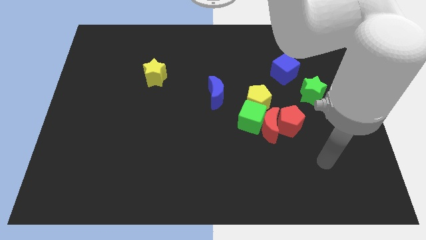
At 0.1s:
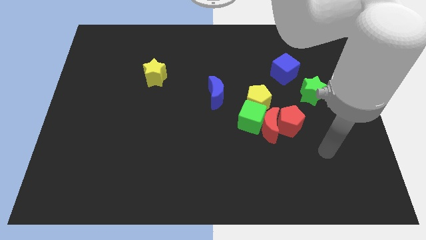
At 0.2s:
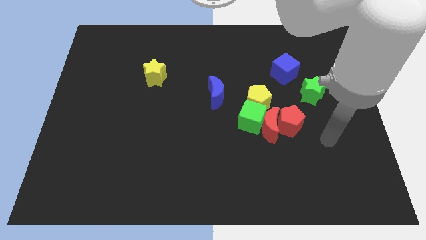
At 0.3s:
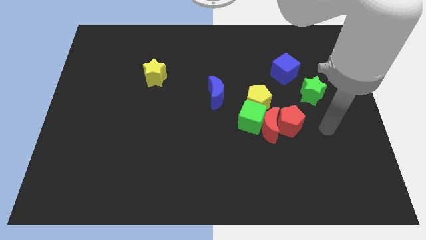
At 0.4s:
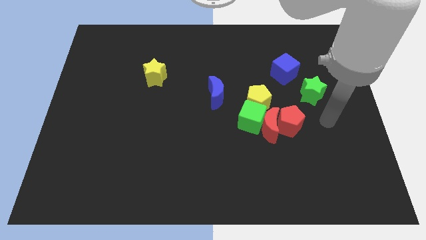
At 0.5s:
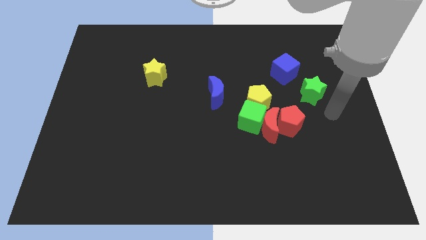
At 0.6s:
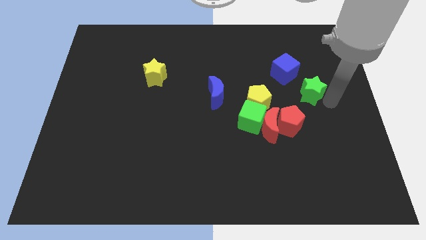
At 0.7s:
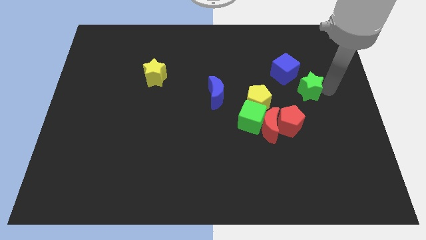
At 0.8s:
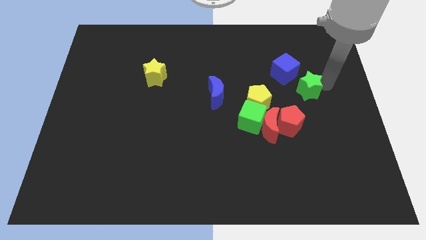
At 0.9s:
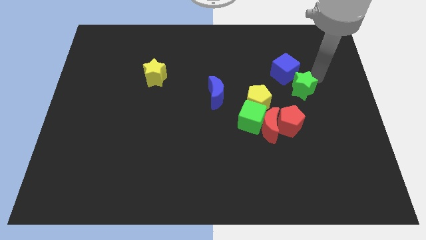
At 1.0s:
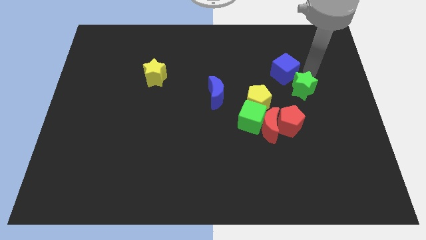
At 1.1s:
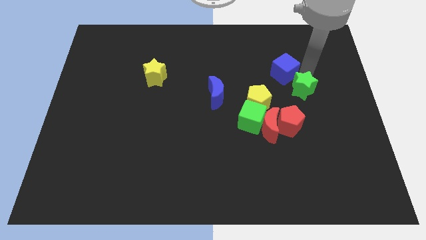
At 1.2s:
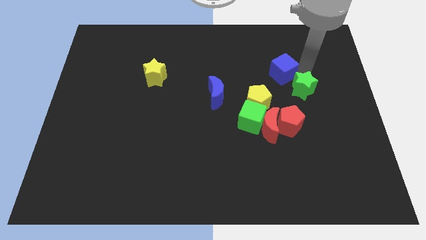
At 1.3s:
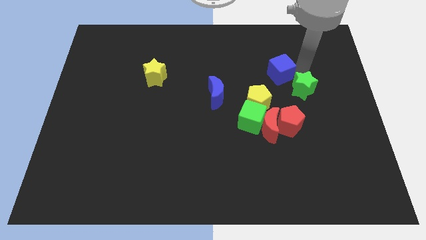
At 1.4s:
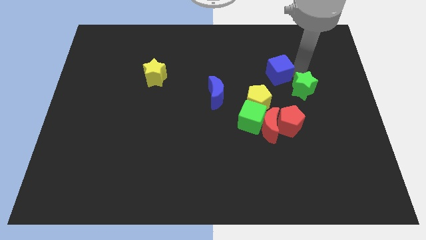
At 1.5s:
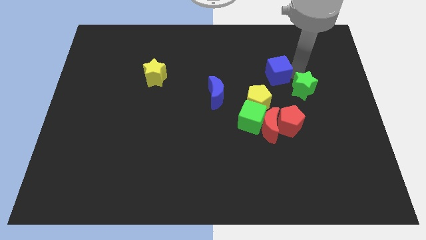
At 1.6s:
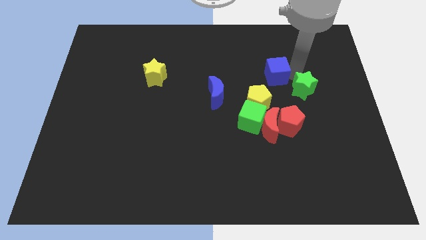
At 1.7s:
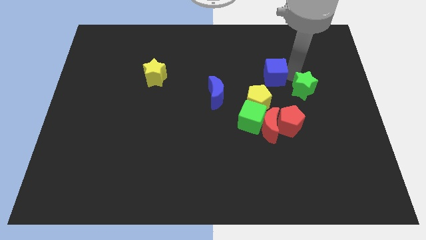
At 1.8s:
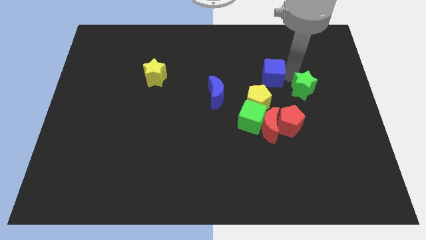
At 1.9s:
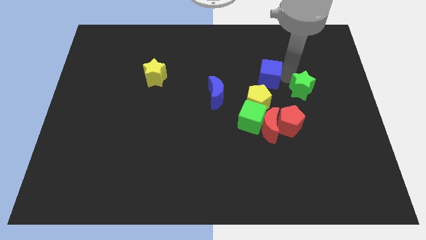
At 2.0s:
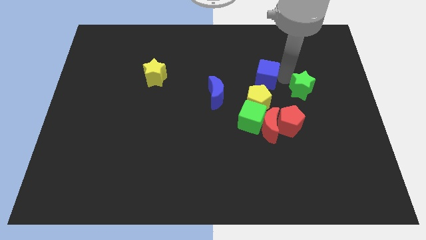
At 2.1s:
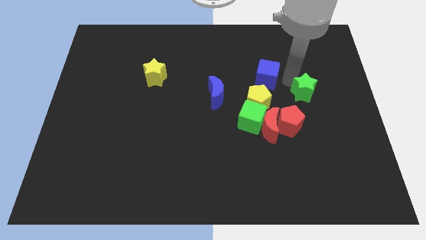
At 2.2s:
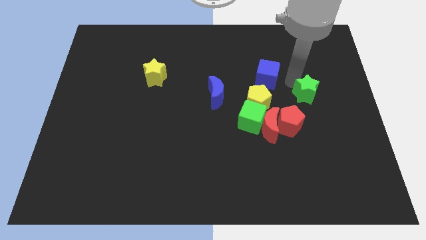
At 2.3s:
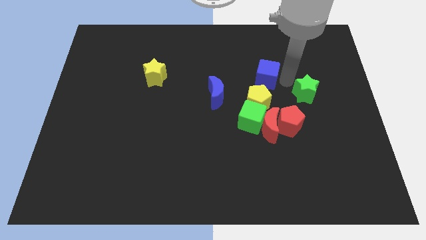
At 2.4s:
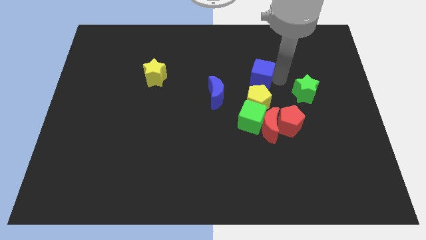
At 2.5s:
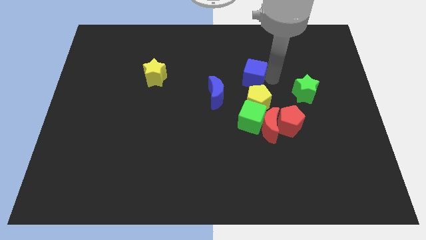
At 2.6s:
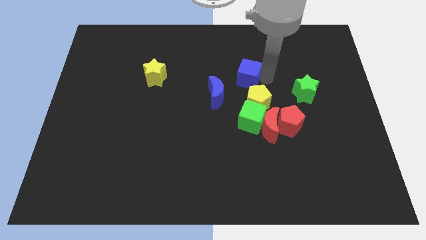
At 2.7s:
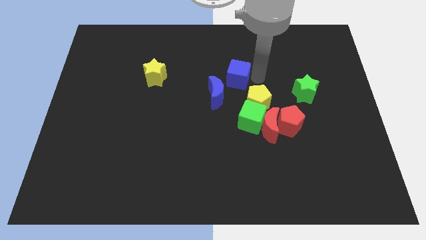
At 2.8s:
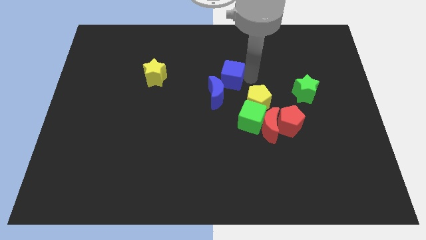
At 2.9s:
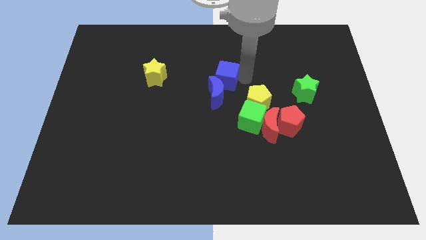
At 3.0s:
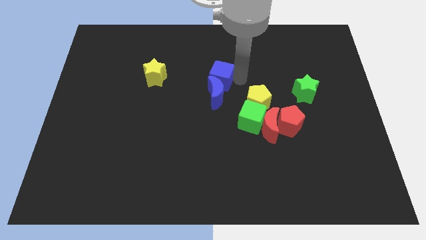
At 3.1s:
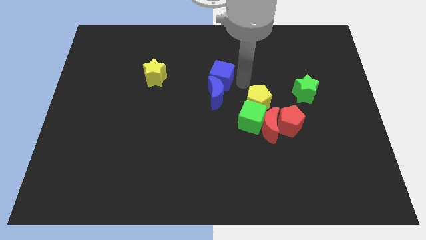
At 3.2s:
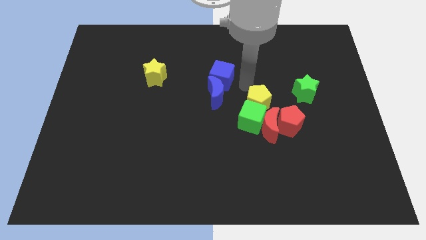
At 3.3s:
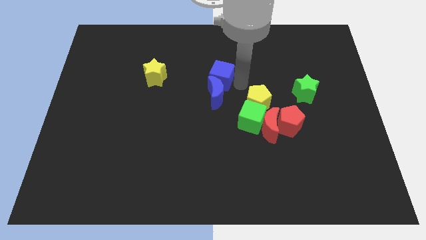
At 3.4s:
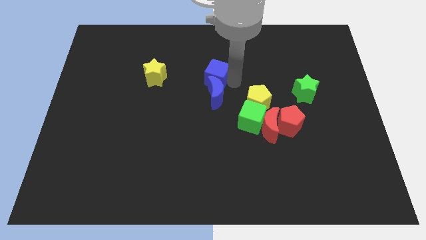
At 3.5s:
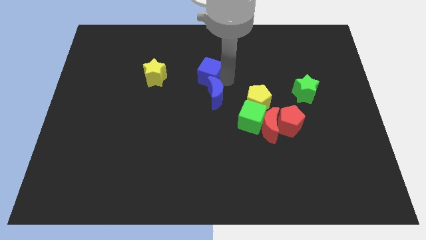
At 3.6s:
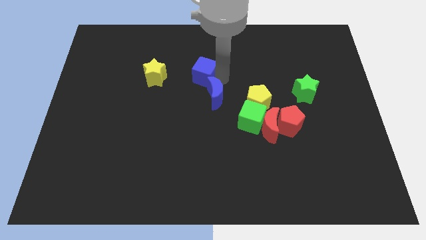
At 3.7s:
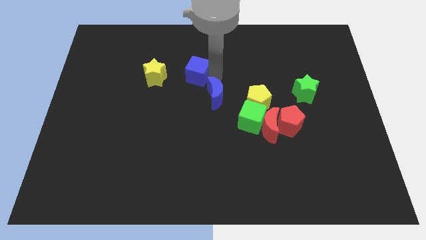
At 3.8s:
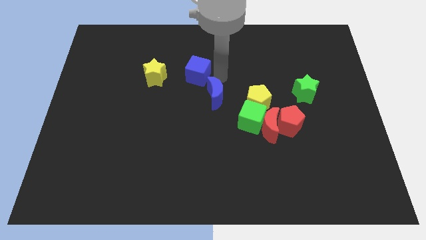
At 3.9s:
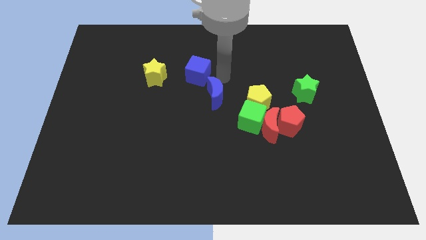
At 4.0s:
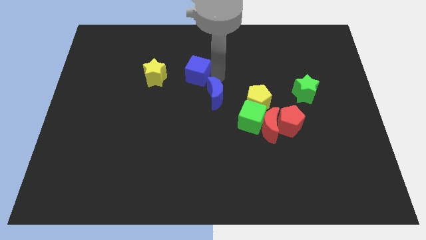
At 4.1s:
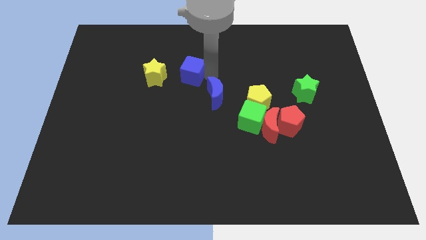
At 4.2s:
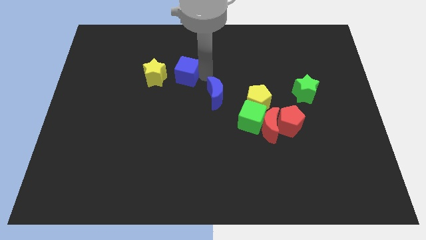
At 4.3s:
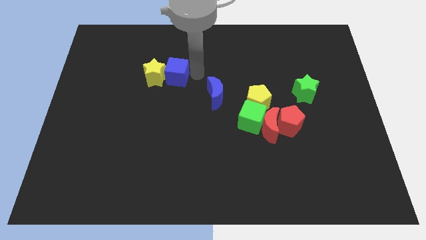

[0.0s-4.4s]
put the blue cube to the yellow star

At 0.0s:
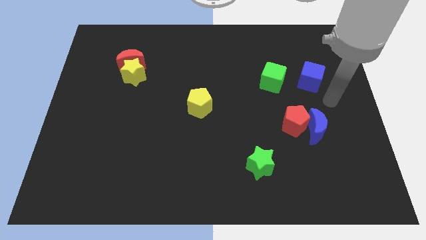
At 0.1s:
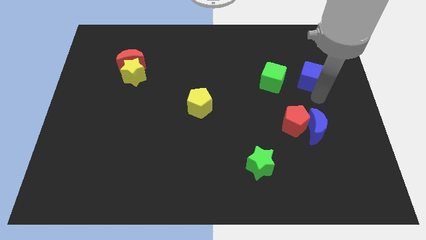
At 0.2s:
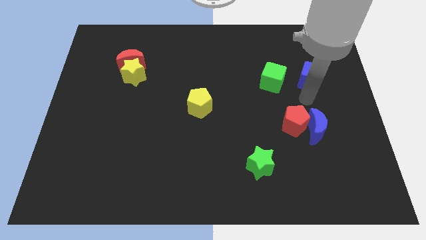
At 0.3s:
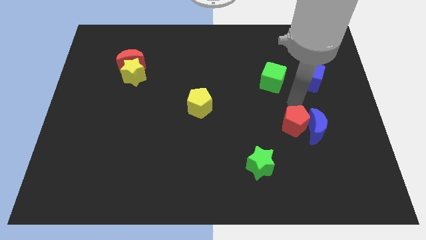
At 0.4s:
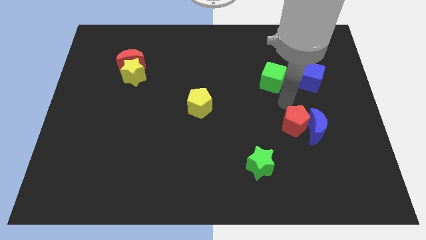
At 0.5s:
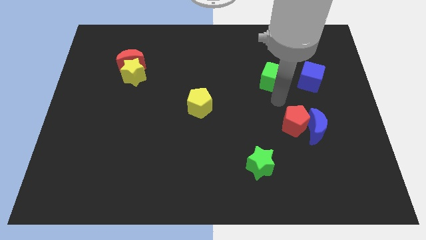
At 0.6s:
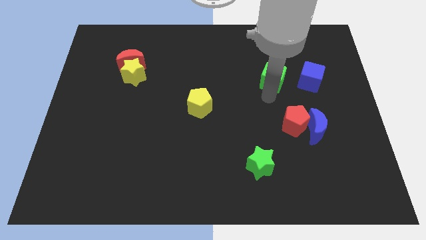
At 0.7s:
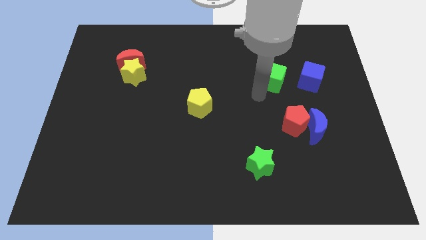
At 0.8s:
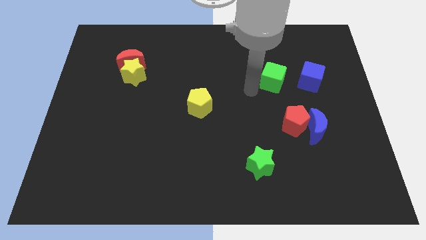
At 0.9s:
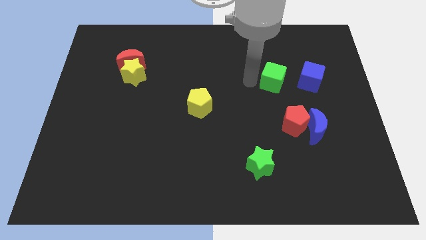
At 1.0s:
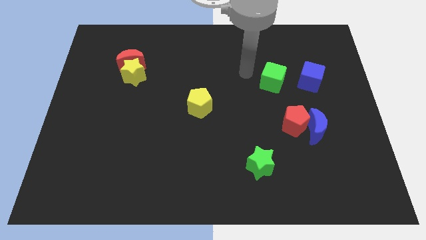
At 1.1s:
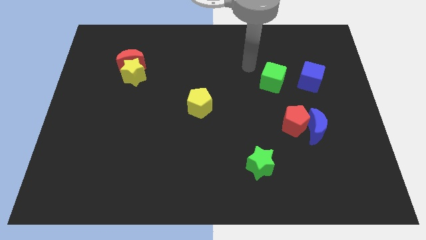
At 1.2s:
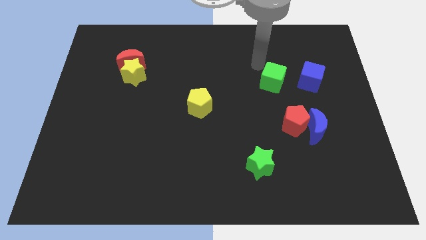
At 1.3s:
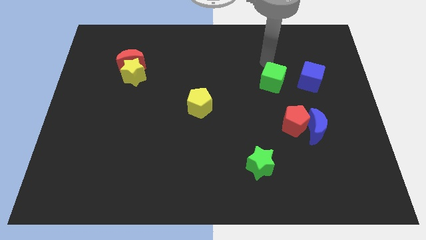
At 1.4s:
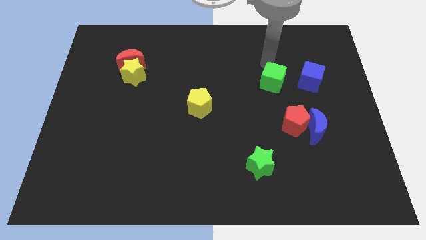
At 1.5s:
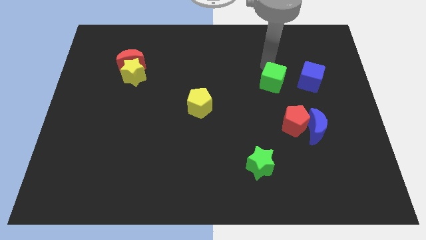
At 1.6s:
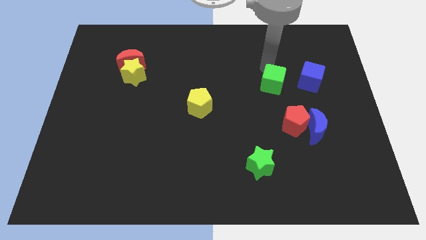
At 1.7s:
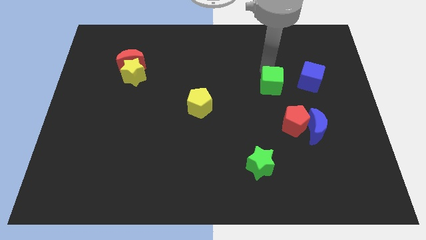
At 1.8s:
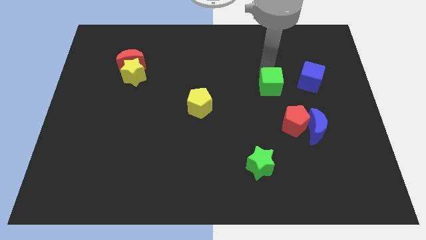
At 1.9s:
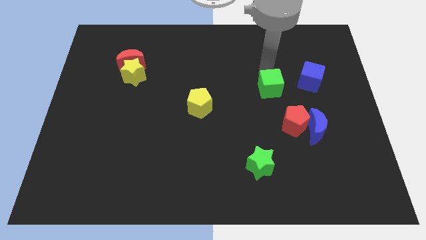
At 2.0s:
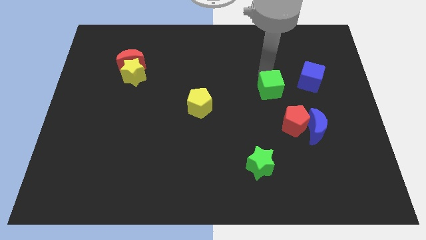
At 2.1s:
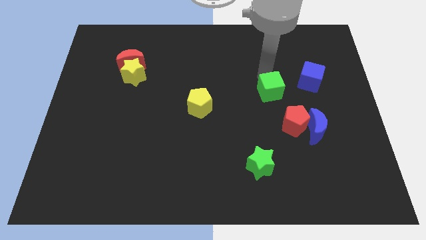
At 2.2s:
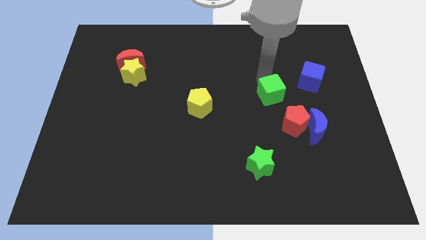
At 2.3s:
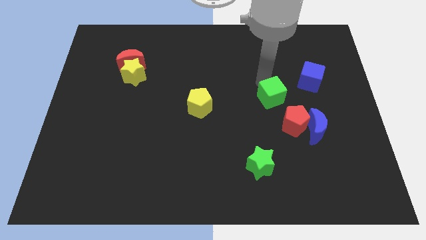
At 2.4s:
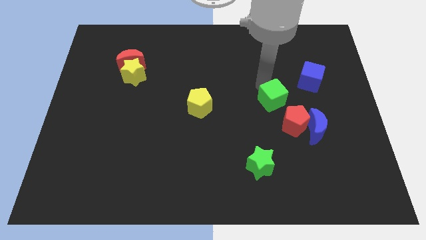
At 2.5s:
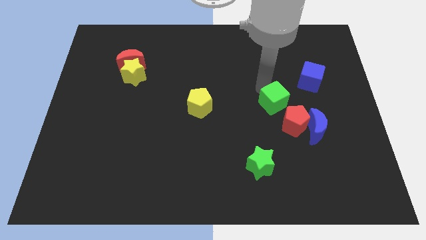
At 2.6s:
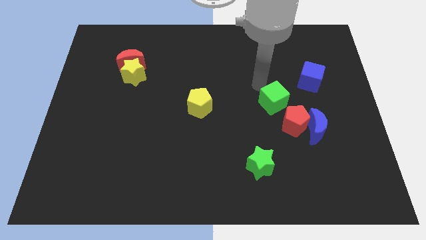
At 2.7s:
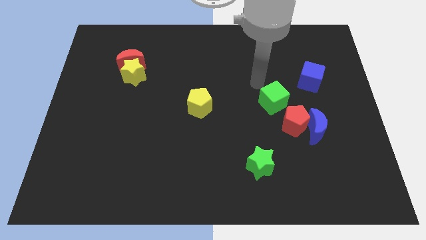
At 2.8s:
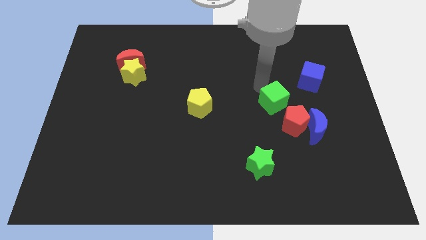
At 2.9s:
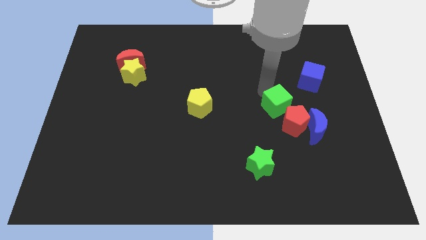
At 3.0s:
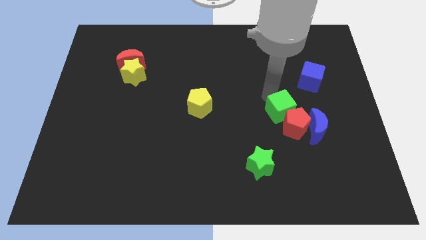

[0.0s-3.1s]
move the green cube next to the red pentagon

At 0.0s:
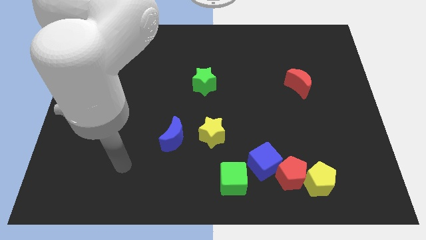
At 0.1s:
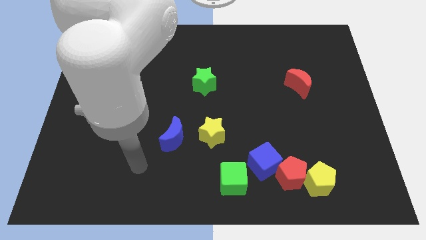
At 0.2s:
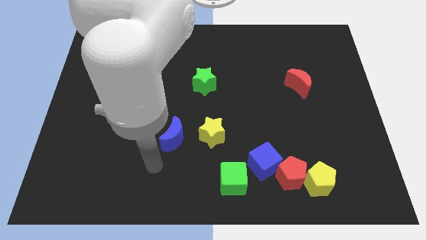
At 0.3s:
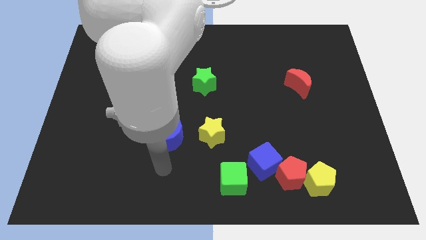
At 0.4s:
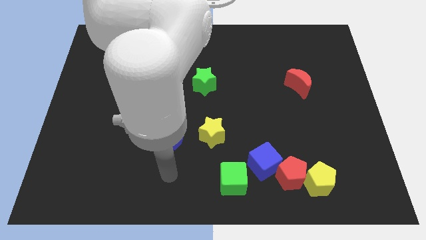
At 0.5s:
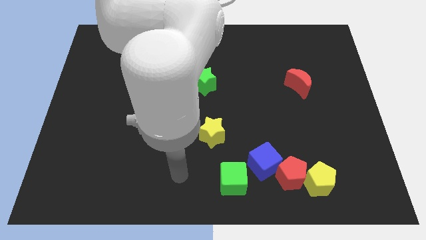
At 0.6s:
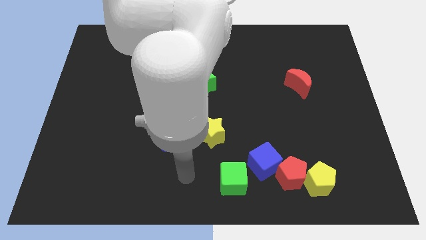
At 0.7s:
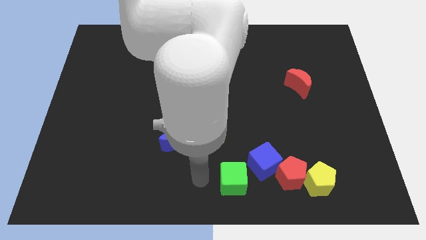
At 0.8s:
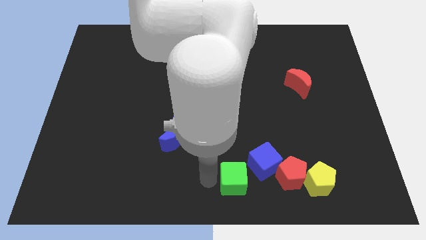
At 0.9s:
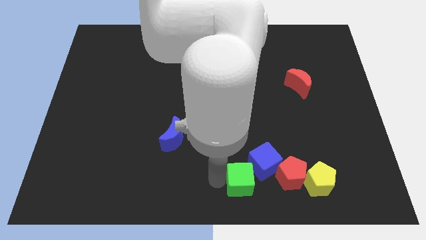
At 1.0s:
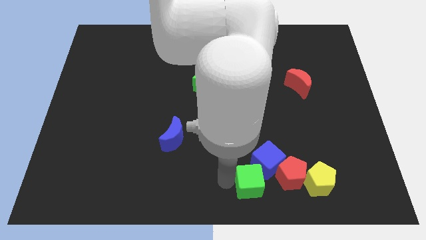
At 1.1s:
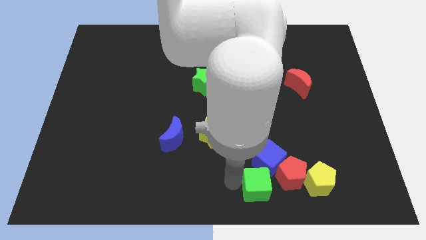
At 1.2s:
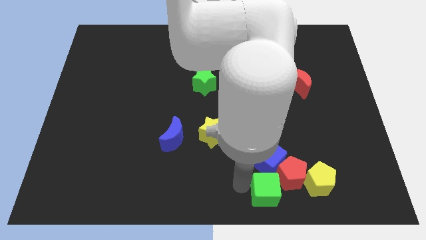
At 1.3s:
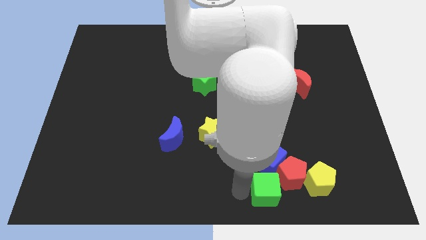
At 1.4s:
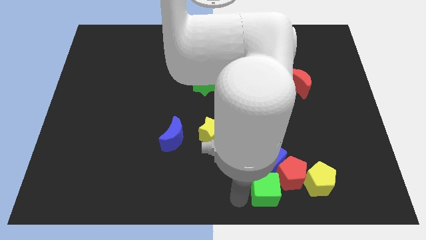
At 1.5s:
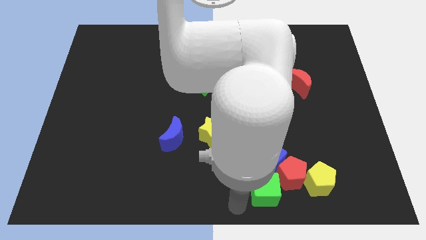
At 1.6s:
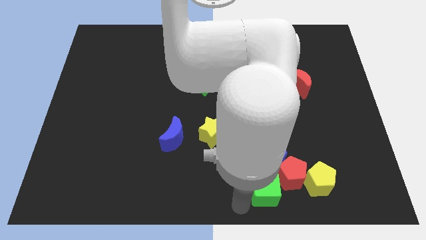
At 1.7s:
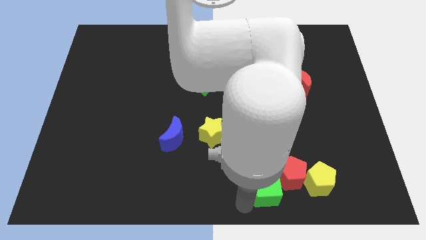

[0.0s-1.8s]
move the green cube to the red pentagon
